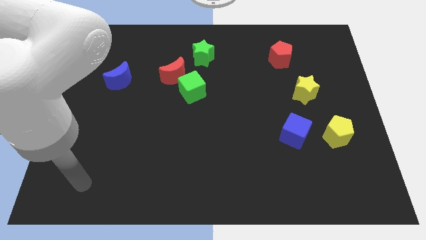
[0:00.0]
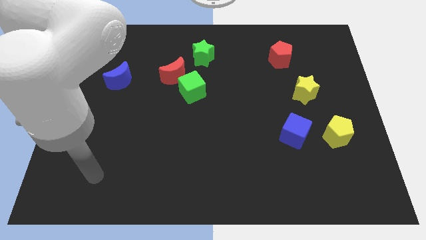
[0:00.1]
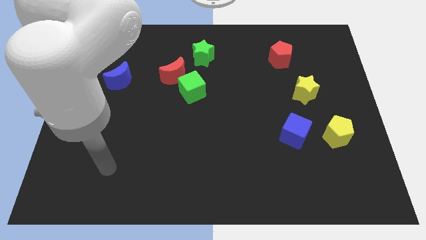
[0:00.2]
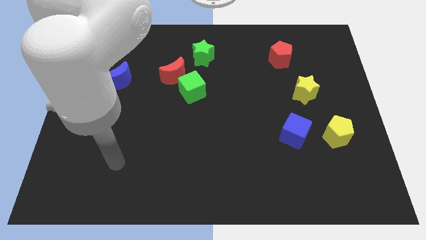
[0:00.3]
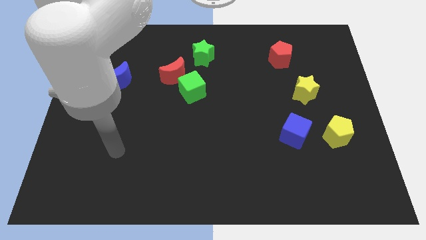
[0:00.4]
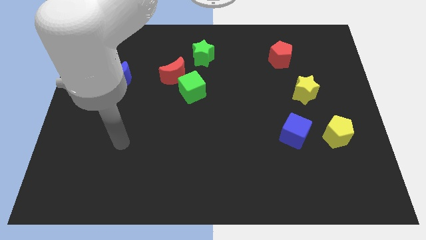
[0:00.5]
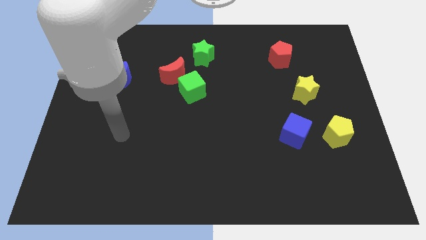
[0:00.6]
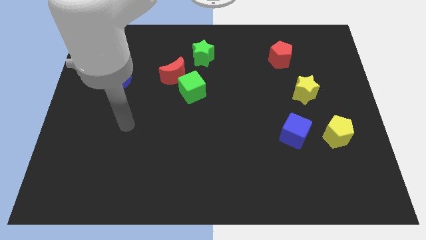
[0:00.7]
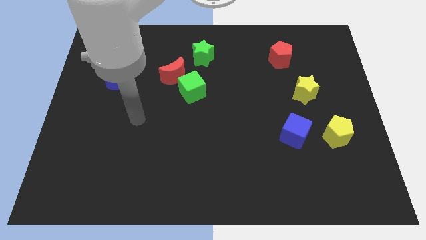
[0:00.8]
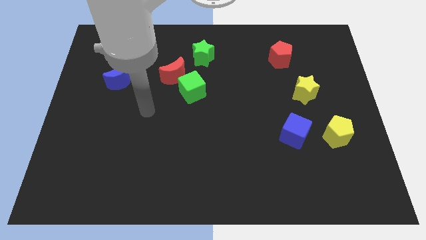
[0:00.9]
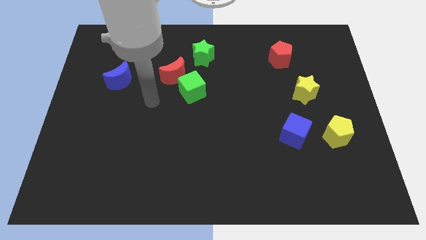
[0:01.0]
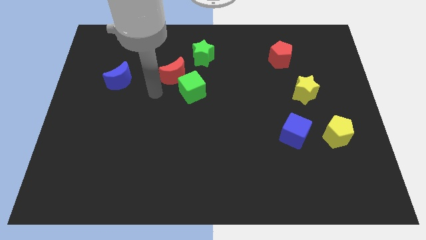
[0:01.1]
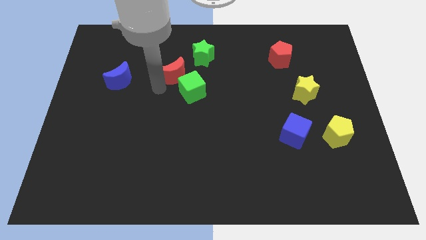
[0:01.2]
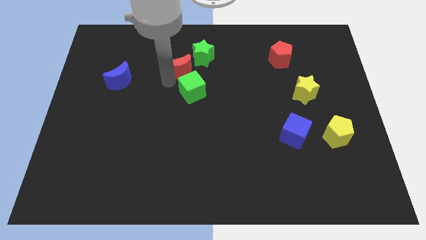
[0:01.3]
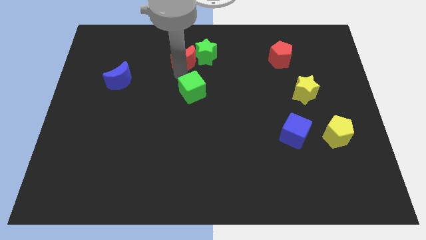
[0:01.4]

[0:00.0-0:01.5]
move the green cube away from the red moon

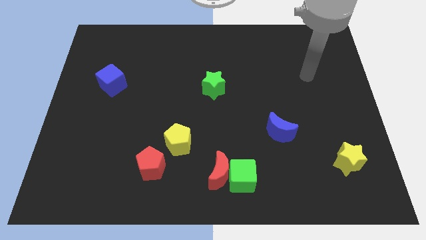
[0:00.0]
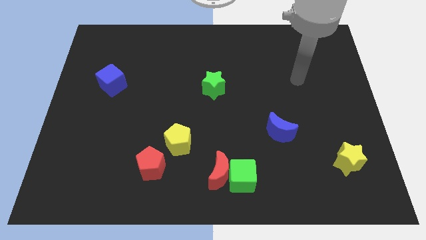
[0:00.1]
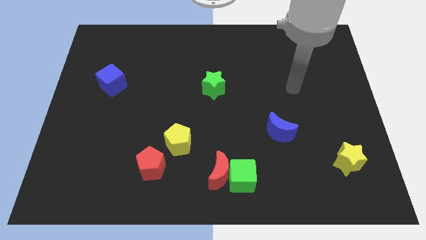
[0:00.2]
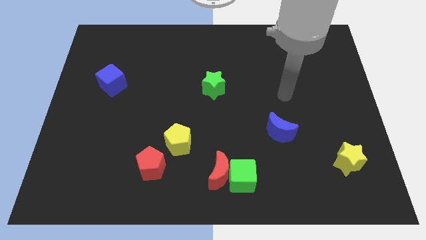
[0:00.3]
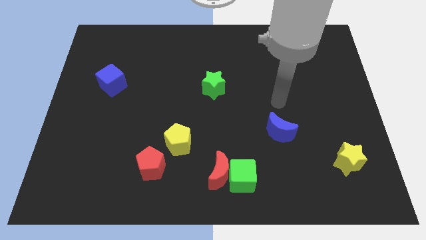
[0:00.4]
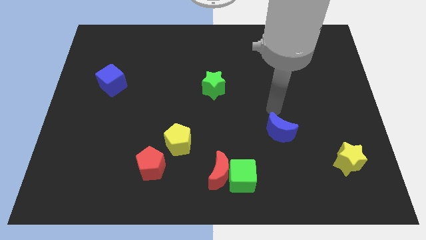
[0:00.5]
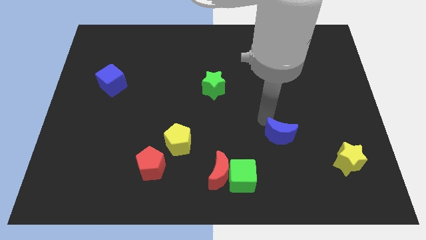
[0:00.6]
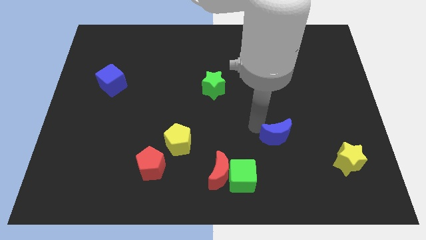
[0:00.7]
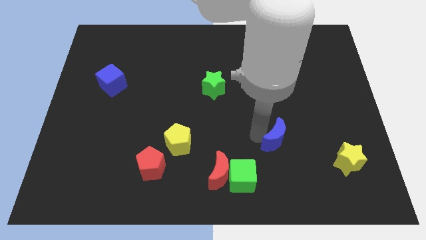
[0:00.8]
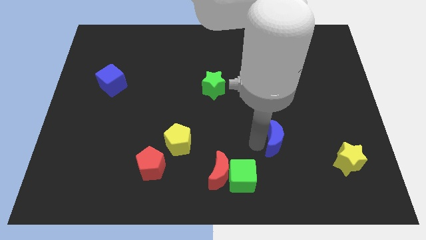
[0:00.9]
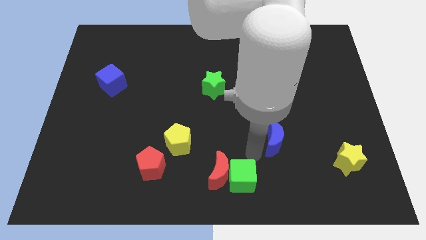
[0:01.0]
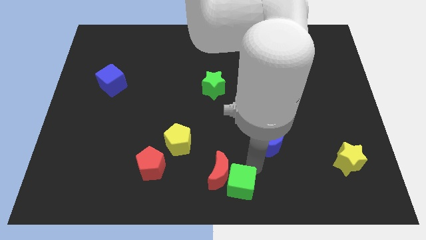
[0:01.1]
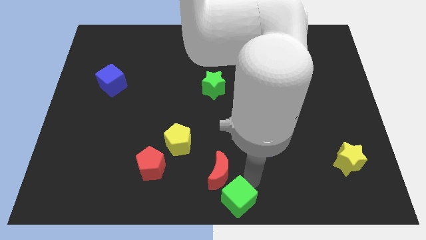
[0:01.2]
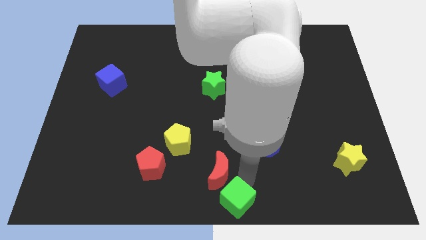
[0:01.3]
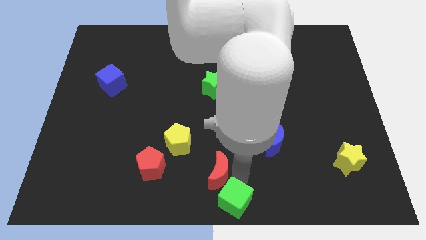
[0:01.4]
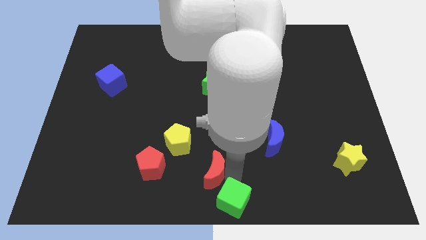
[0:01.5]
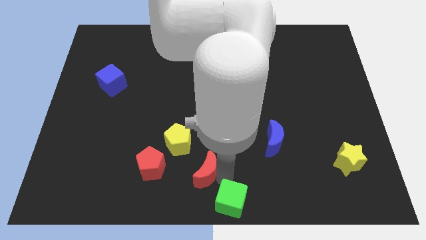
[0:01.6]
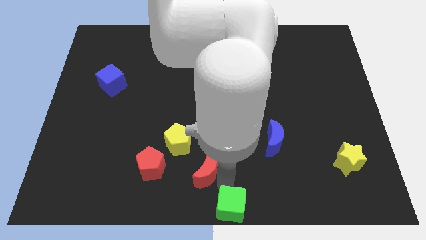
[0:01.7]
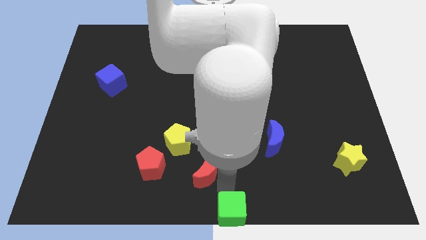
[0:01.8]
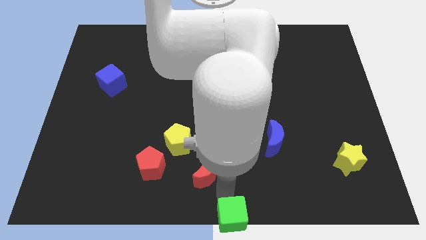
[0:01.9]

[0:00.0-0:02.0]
move the red moon away from the green cube

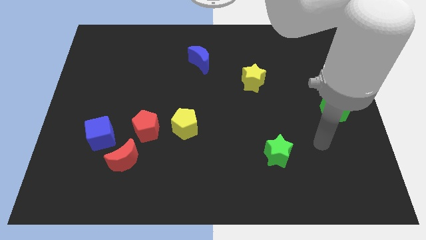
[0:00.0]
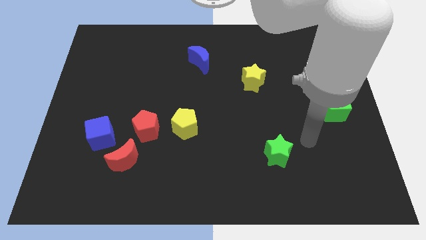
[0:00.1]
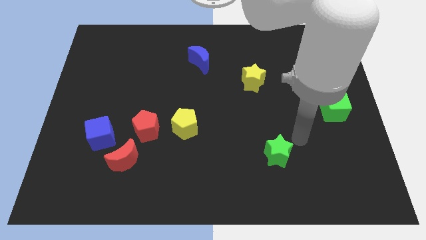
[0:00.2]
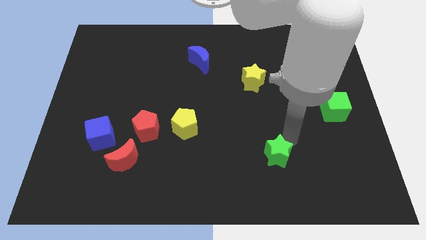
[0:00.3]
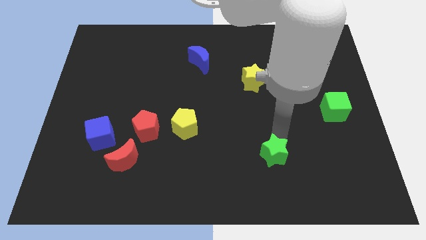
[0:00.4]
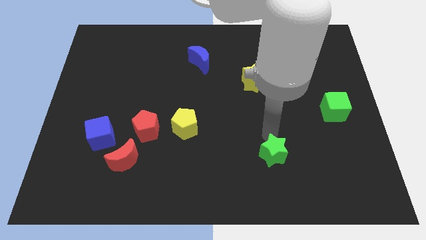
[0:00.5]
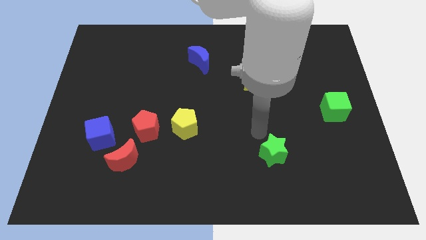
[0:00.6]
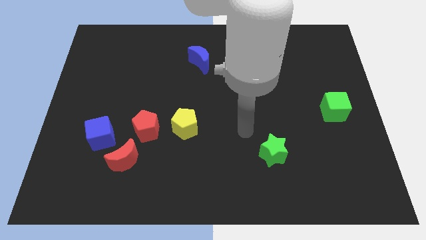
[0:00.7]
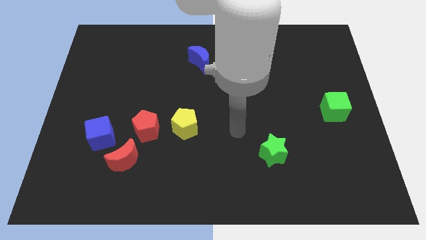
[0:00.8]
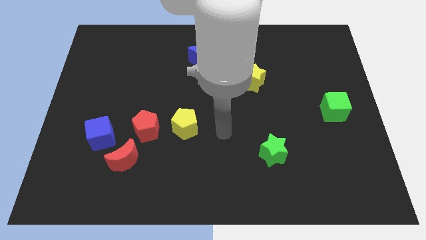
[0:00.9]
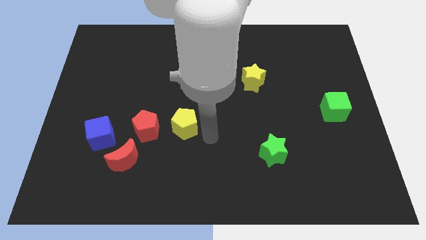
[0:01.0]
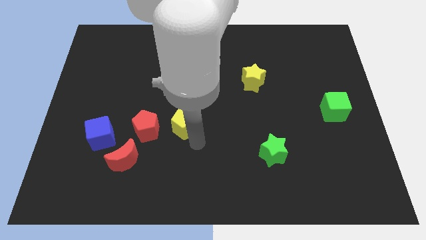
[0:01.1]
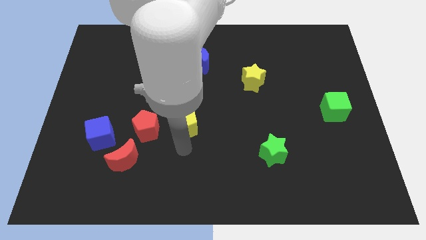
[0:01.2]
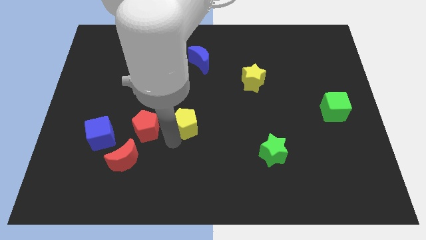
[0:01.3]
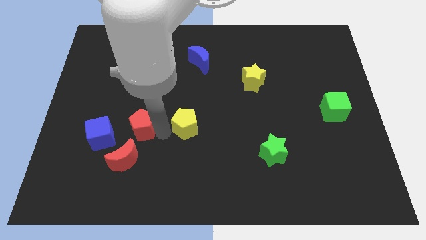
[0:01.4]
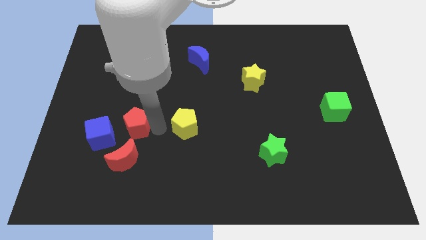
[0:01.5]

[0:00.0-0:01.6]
pull the yellow pentagon apart from the red pentagon

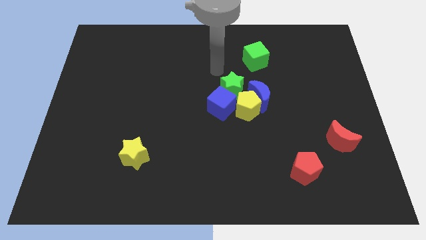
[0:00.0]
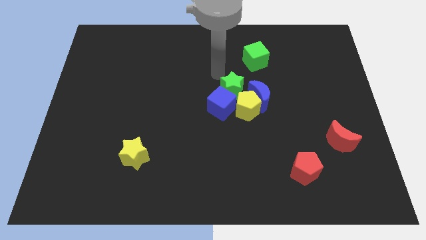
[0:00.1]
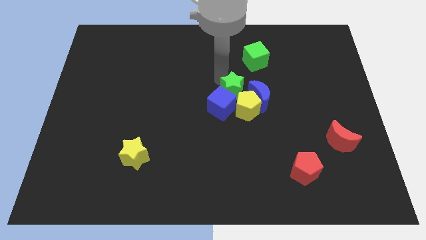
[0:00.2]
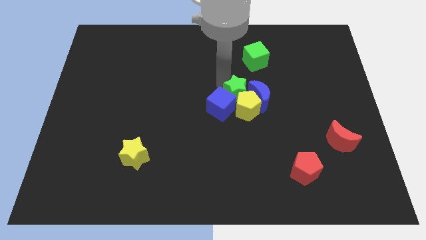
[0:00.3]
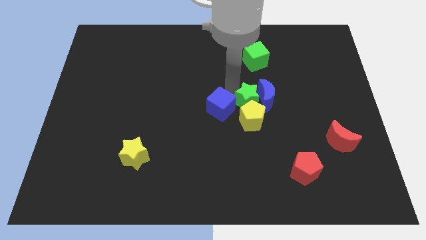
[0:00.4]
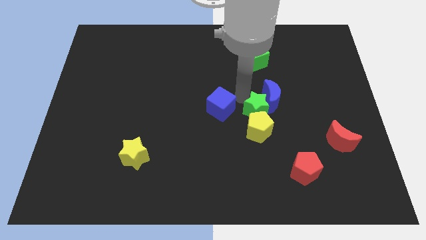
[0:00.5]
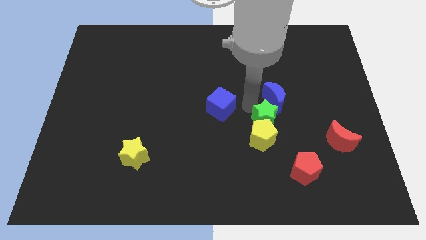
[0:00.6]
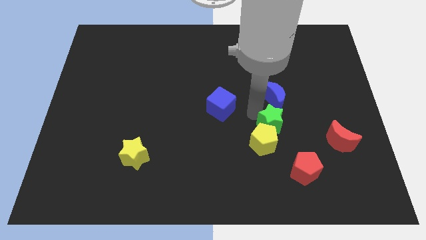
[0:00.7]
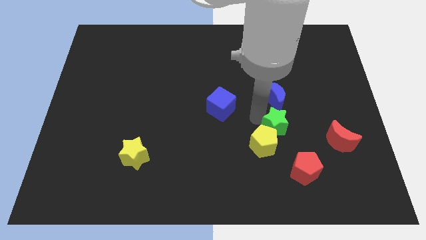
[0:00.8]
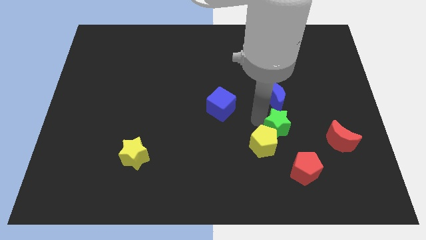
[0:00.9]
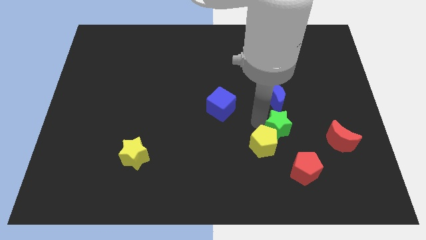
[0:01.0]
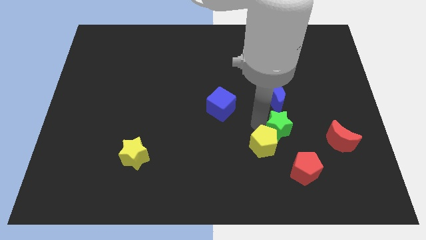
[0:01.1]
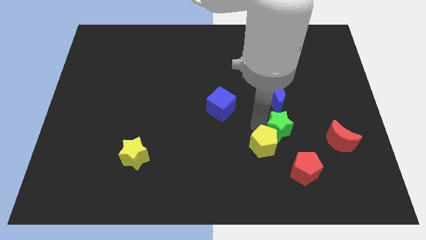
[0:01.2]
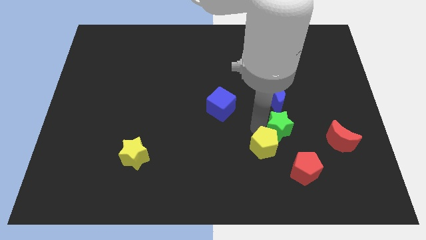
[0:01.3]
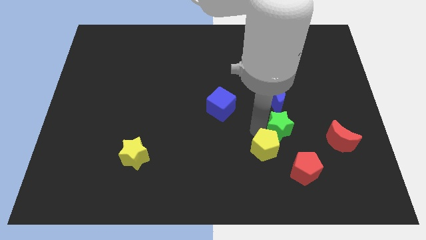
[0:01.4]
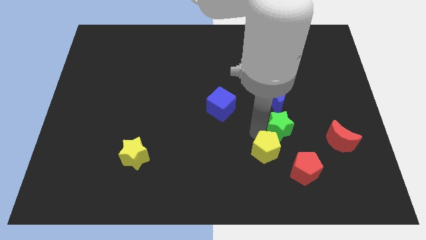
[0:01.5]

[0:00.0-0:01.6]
move the yellow pentagon away from the group of blocks

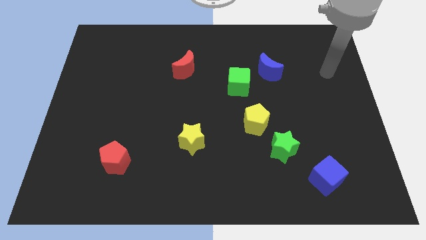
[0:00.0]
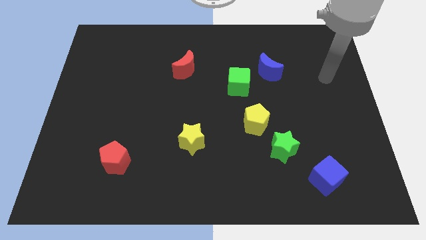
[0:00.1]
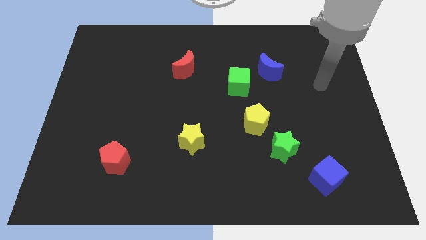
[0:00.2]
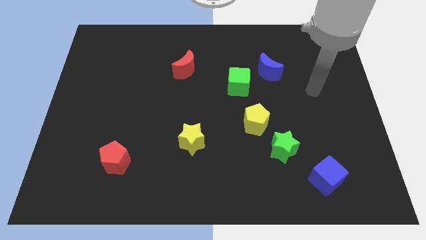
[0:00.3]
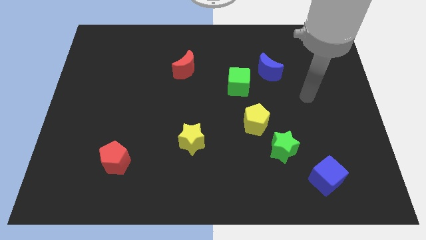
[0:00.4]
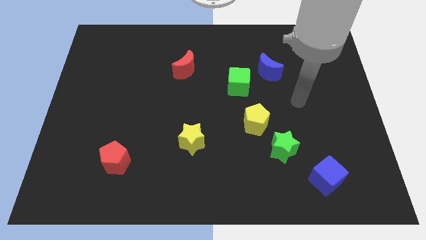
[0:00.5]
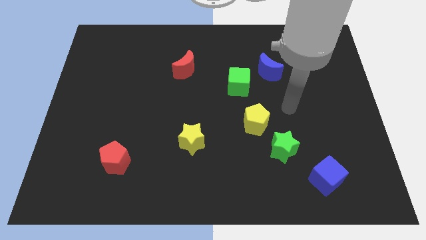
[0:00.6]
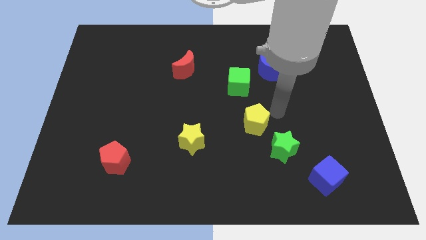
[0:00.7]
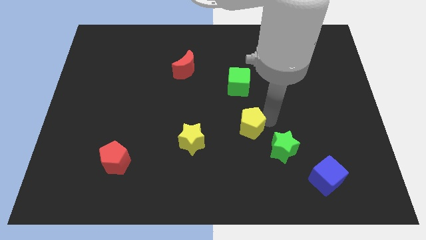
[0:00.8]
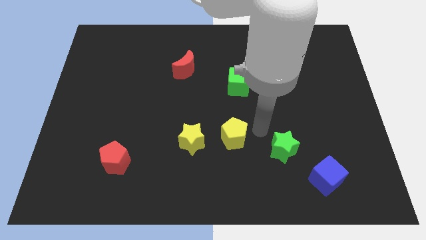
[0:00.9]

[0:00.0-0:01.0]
separate the green star from the yellow pentagon

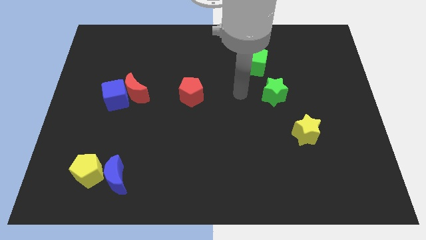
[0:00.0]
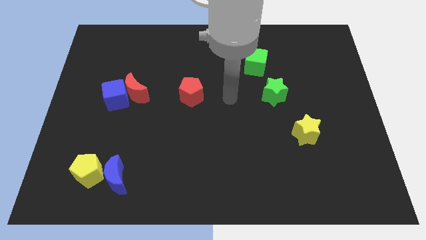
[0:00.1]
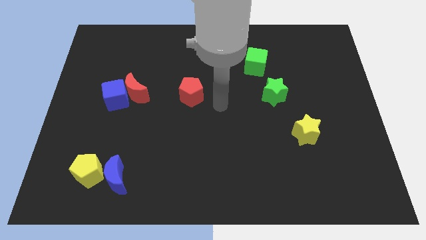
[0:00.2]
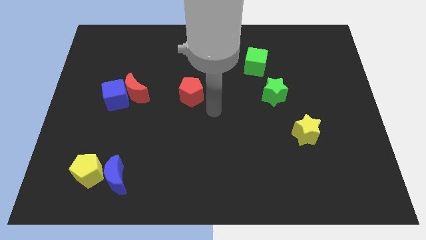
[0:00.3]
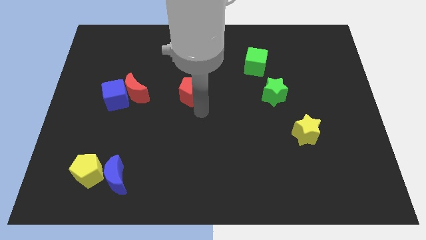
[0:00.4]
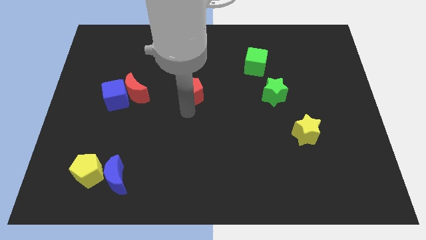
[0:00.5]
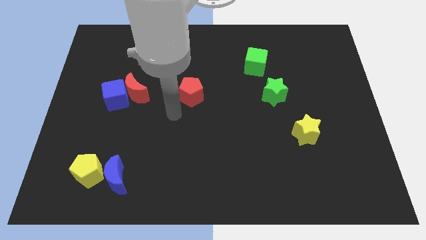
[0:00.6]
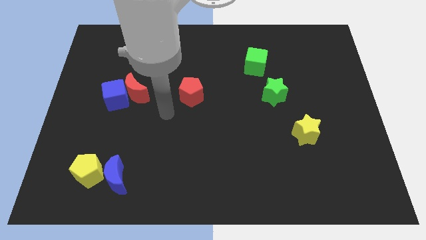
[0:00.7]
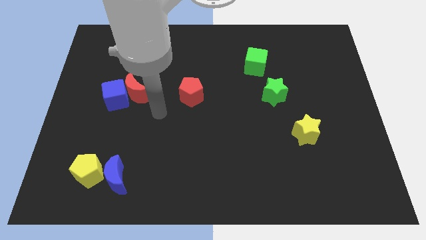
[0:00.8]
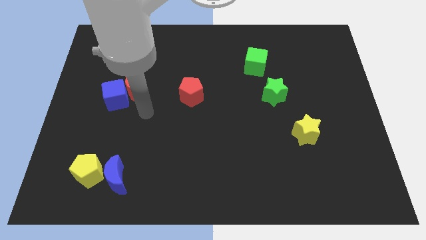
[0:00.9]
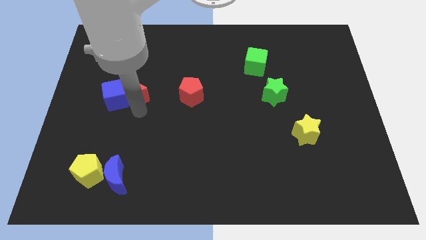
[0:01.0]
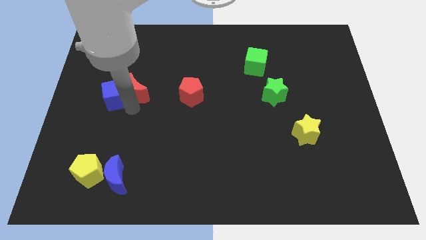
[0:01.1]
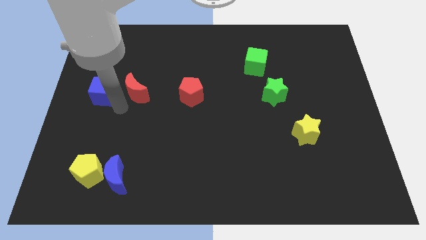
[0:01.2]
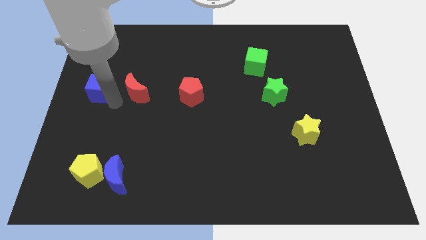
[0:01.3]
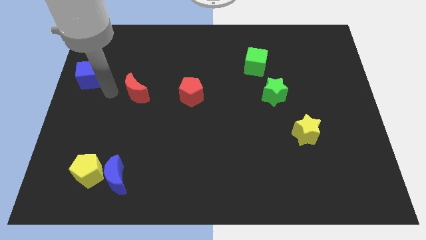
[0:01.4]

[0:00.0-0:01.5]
separate the red moon from the blue cube

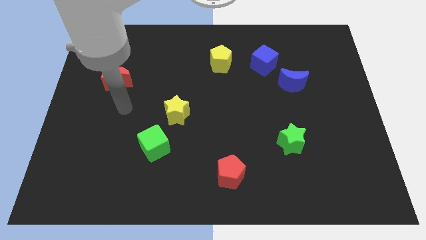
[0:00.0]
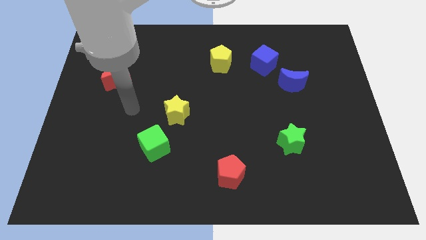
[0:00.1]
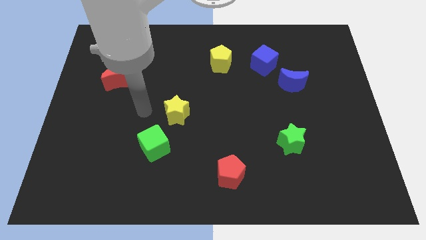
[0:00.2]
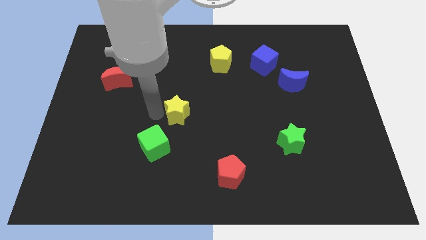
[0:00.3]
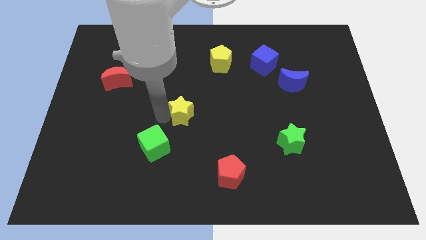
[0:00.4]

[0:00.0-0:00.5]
pull the green cube apart from the yellow star
